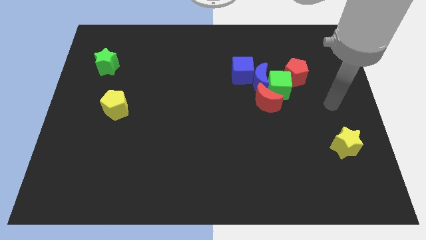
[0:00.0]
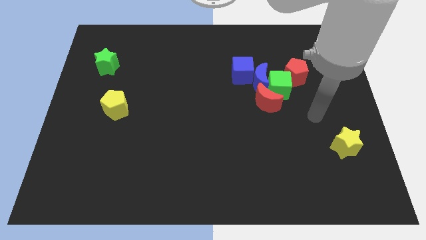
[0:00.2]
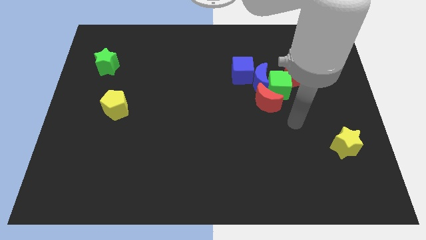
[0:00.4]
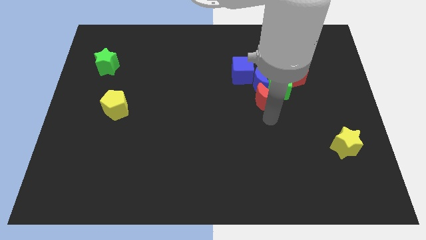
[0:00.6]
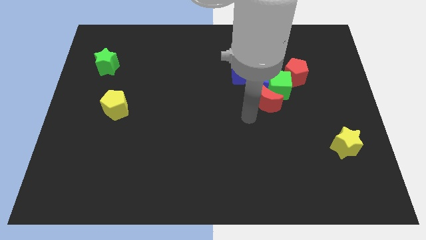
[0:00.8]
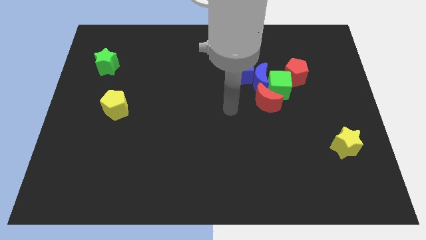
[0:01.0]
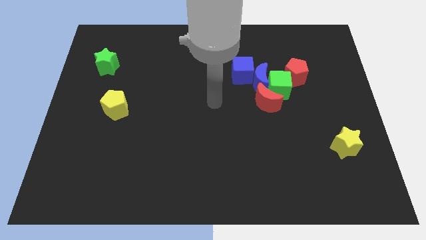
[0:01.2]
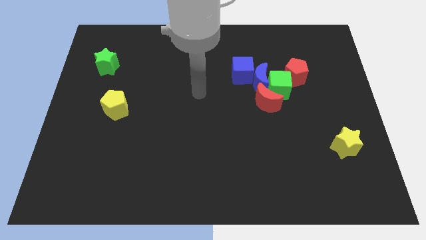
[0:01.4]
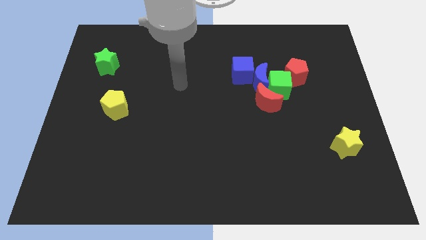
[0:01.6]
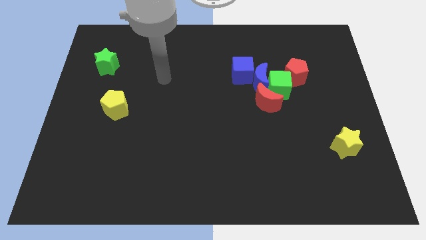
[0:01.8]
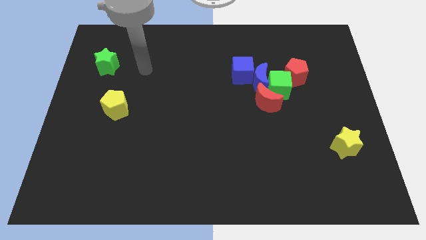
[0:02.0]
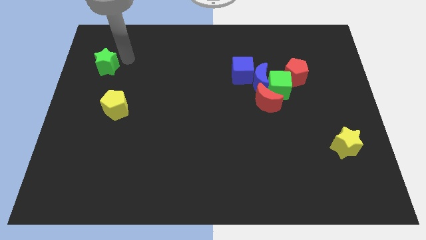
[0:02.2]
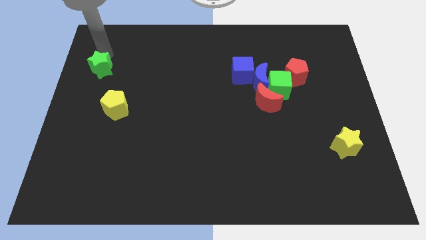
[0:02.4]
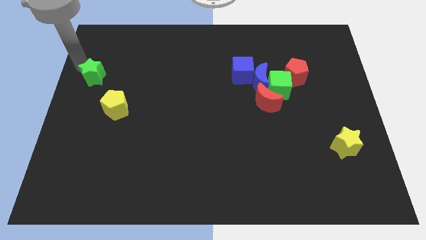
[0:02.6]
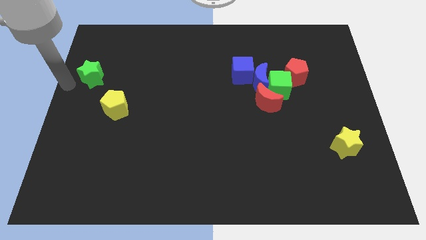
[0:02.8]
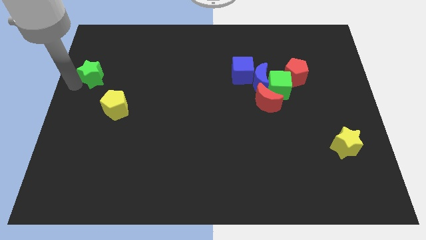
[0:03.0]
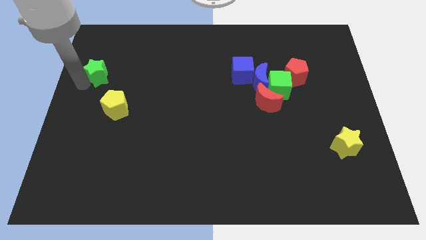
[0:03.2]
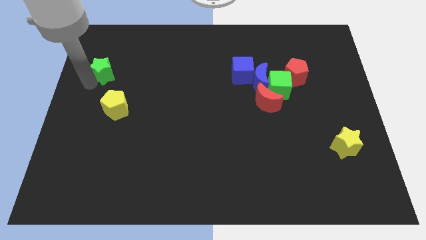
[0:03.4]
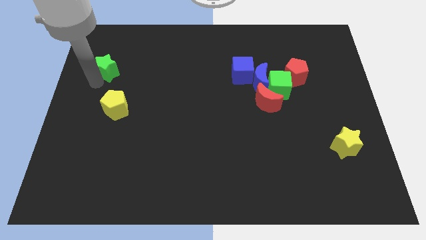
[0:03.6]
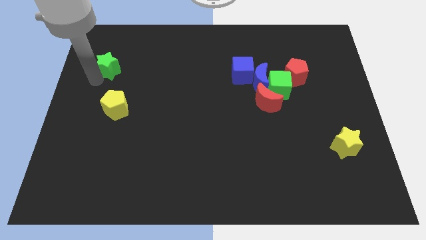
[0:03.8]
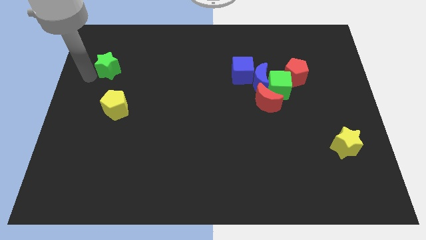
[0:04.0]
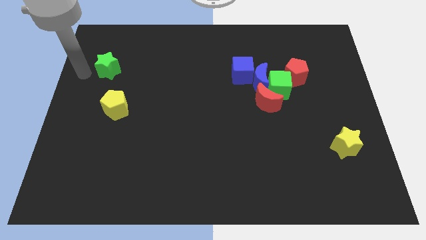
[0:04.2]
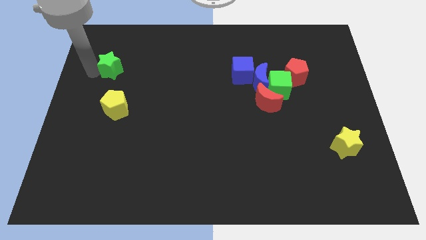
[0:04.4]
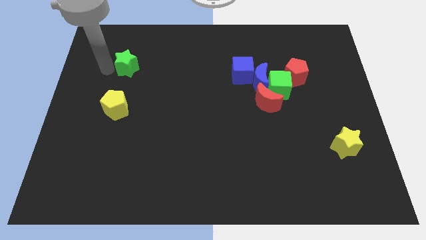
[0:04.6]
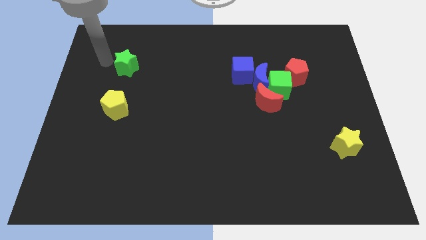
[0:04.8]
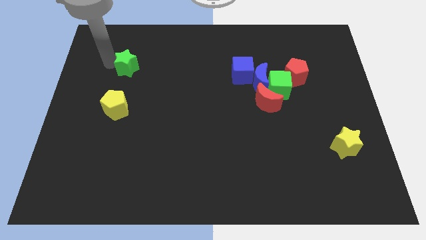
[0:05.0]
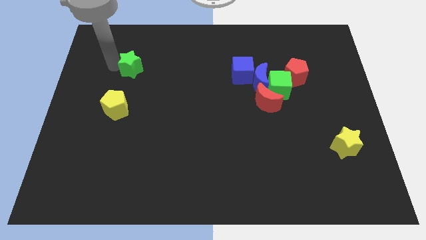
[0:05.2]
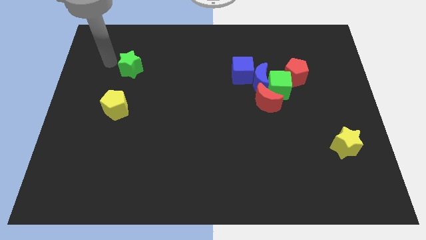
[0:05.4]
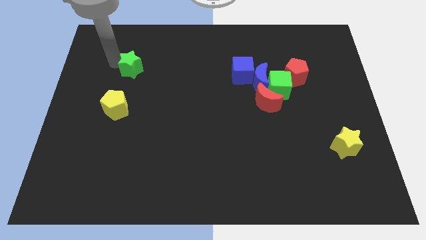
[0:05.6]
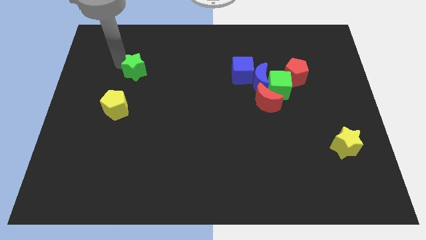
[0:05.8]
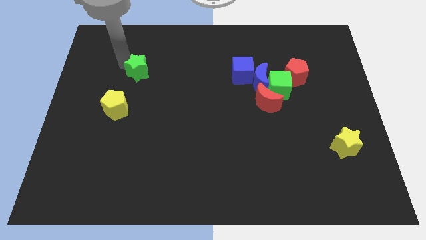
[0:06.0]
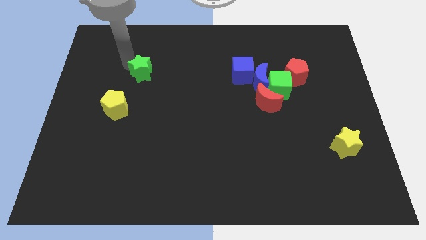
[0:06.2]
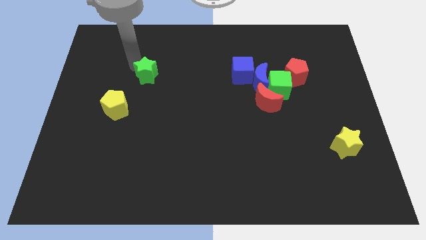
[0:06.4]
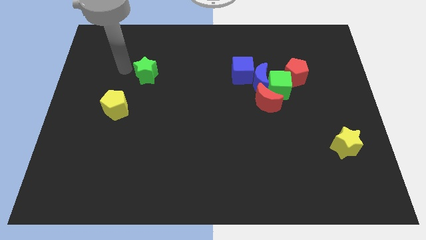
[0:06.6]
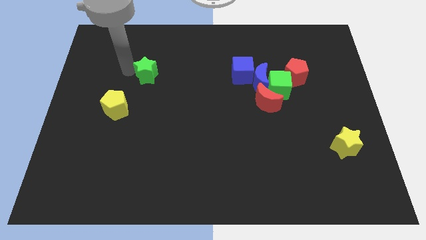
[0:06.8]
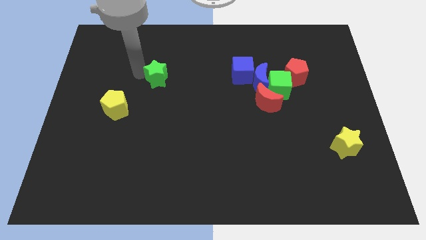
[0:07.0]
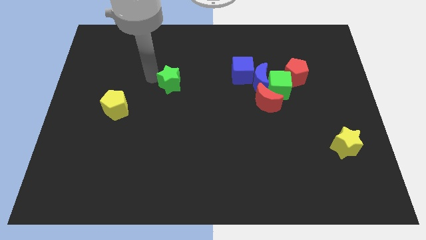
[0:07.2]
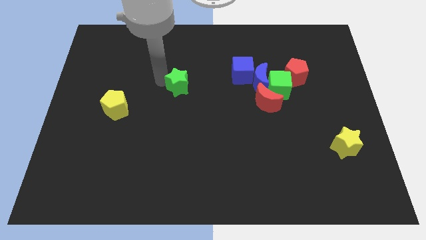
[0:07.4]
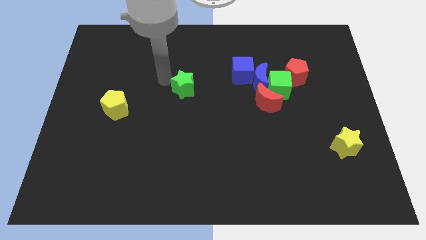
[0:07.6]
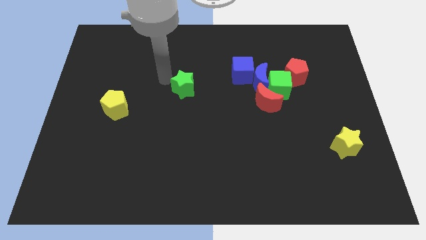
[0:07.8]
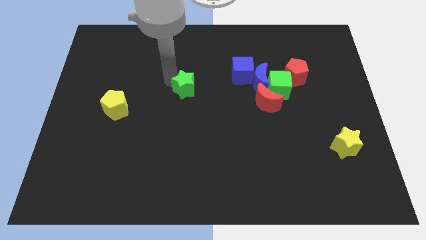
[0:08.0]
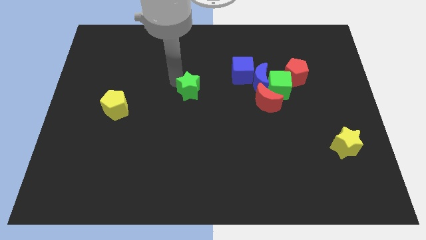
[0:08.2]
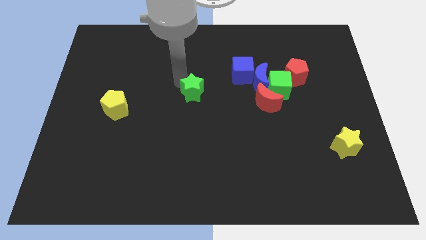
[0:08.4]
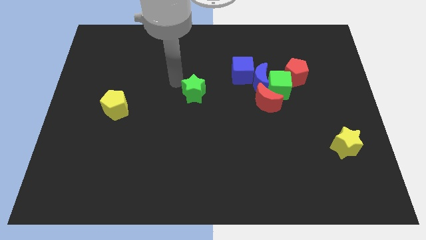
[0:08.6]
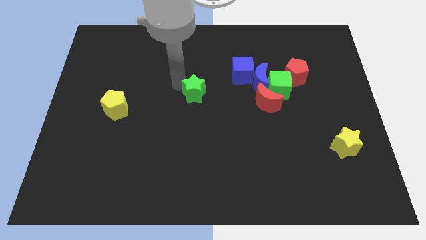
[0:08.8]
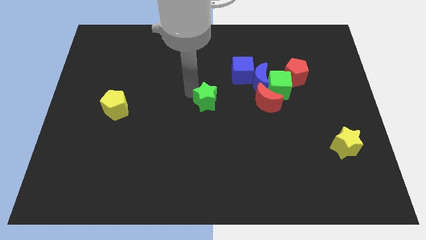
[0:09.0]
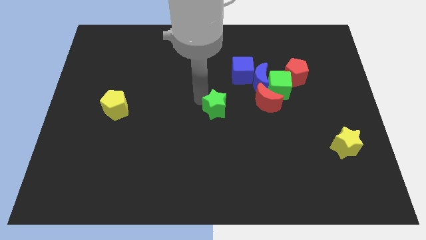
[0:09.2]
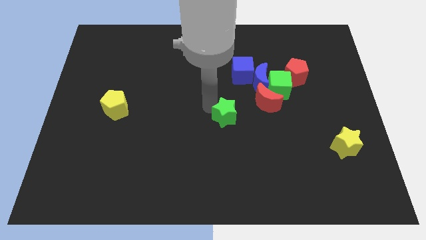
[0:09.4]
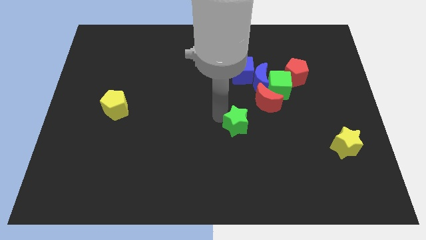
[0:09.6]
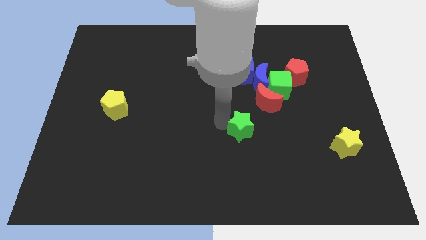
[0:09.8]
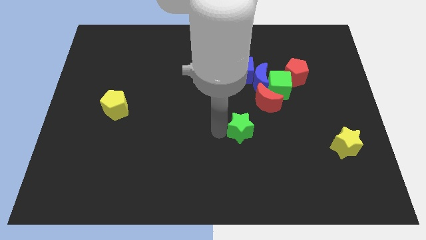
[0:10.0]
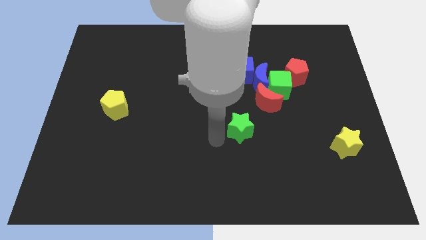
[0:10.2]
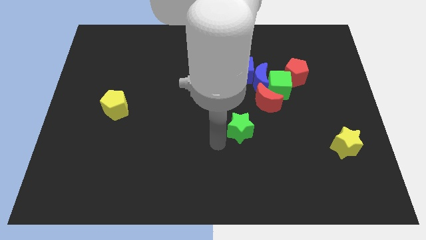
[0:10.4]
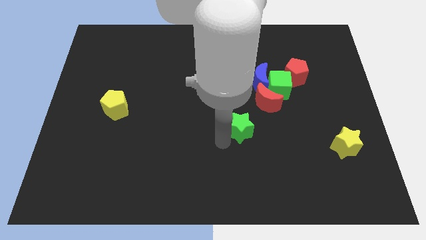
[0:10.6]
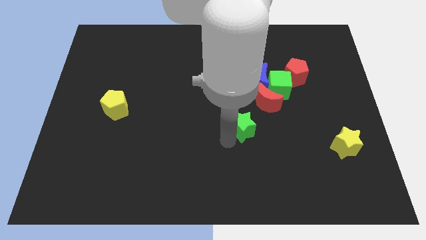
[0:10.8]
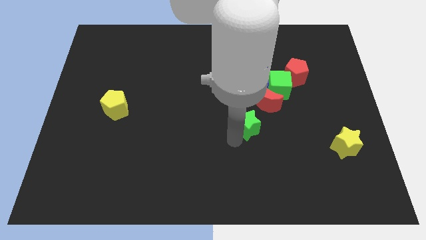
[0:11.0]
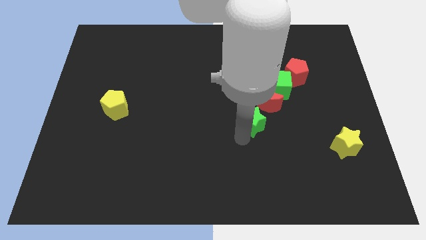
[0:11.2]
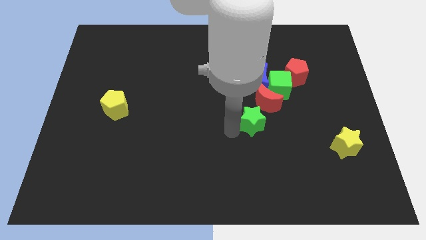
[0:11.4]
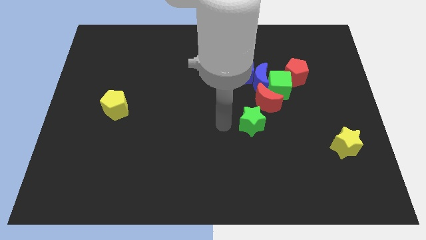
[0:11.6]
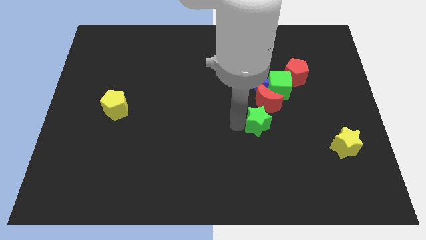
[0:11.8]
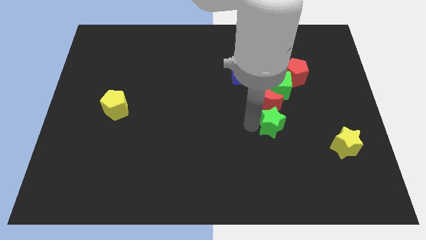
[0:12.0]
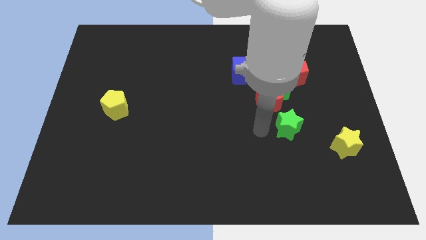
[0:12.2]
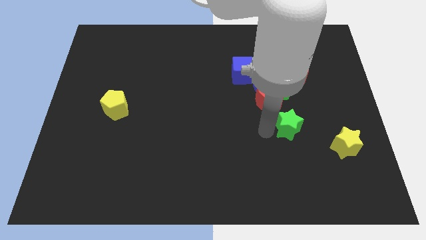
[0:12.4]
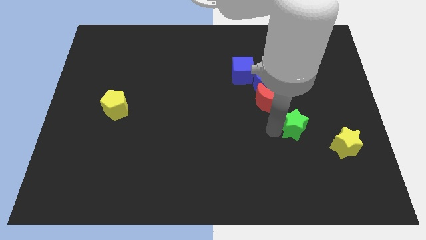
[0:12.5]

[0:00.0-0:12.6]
push the green star to the top left side of the yellow star

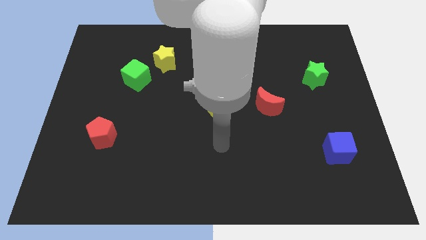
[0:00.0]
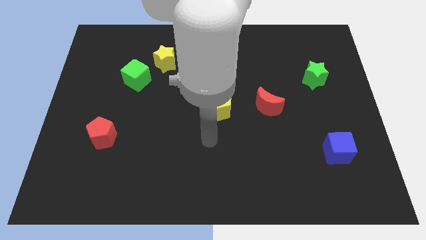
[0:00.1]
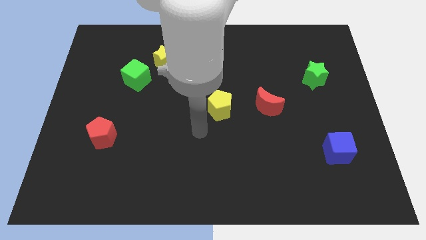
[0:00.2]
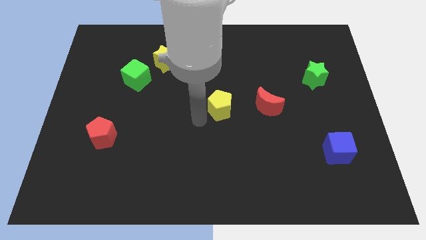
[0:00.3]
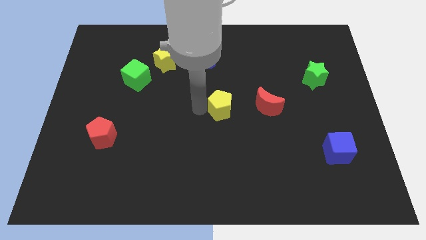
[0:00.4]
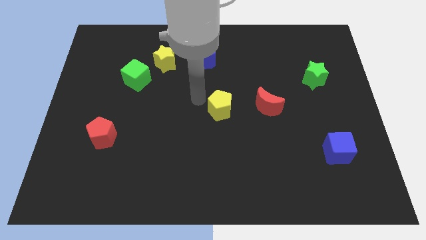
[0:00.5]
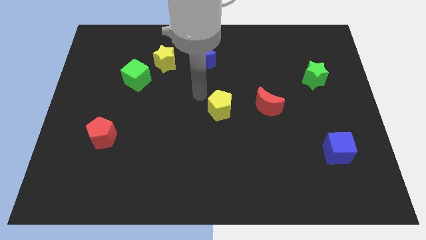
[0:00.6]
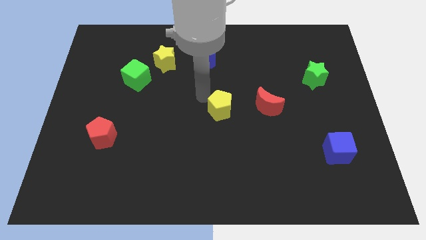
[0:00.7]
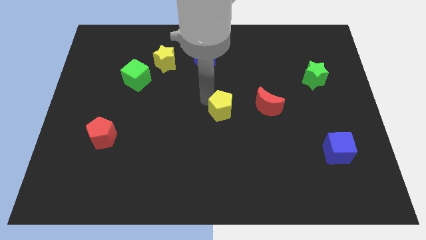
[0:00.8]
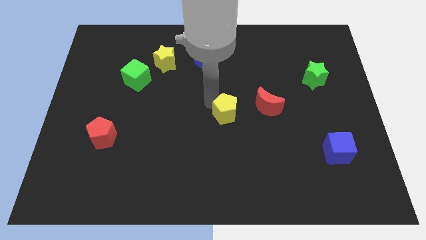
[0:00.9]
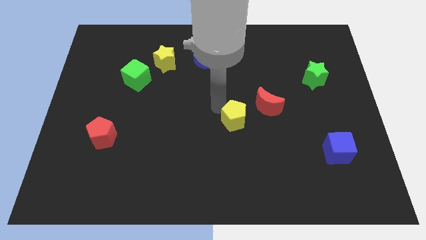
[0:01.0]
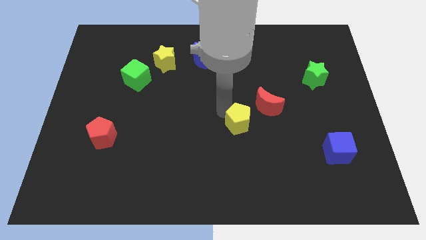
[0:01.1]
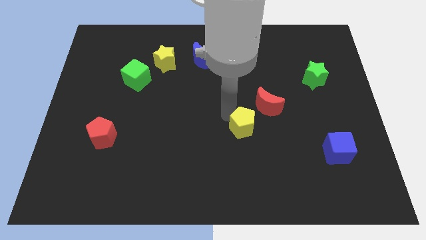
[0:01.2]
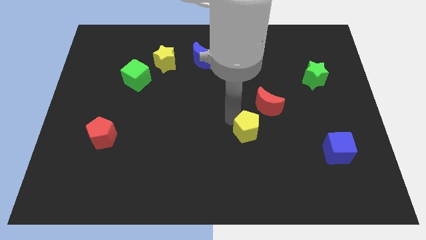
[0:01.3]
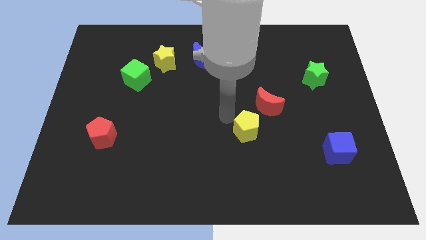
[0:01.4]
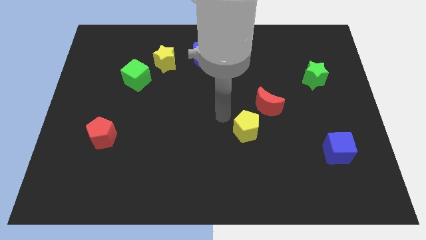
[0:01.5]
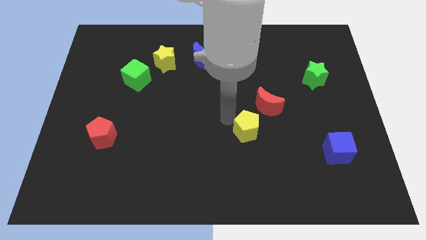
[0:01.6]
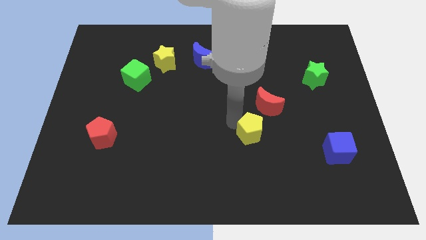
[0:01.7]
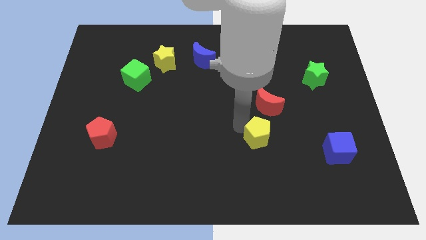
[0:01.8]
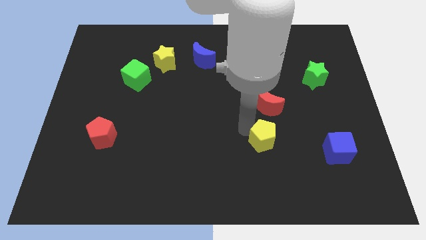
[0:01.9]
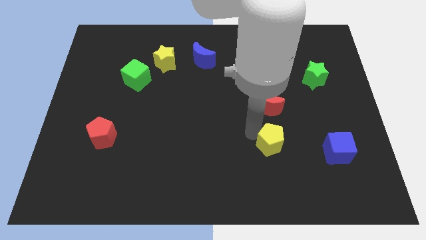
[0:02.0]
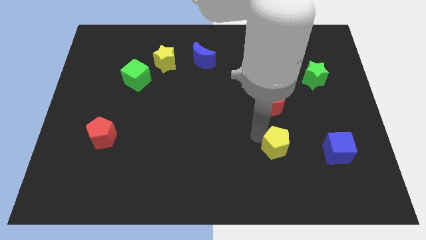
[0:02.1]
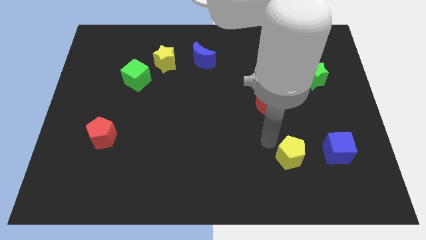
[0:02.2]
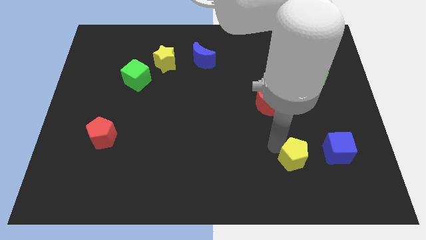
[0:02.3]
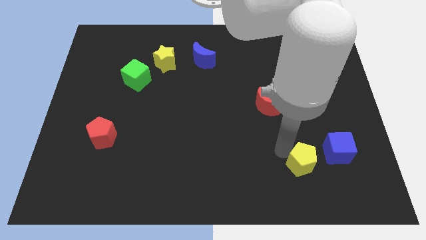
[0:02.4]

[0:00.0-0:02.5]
put the yellow pentagon to the bottom left side of the blue cube
